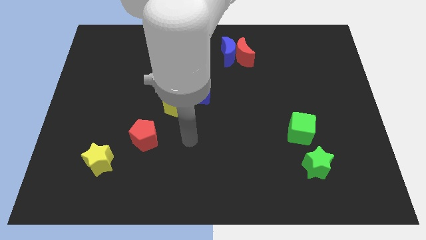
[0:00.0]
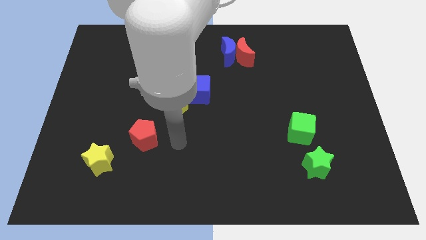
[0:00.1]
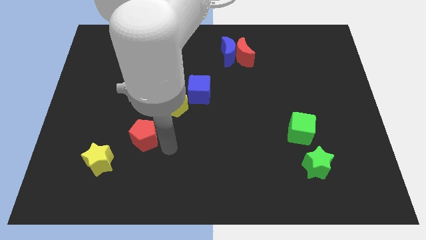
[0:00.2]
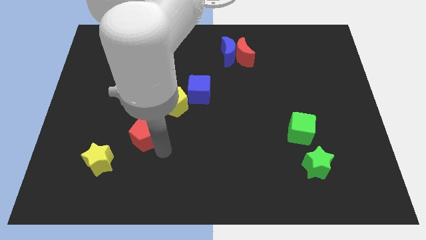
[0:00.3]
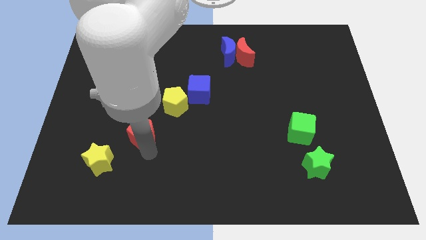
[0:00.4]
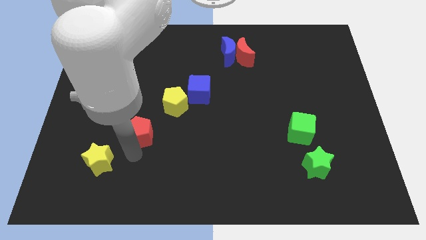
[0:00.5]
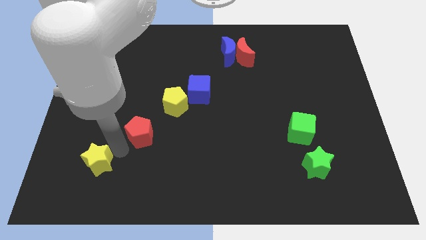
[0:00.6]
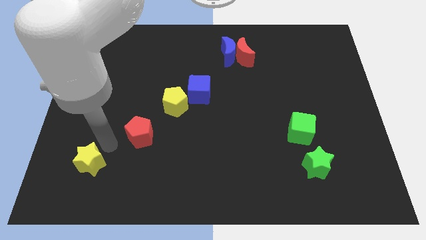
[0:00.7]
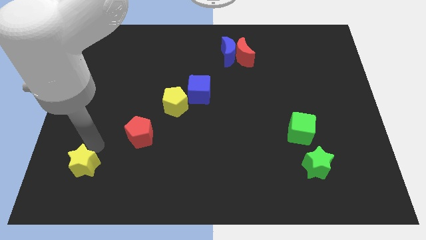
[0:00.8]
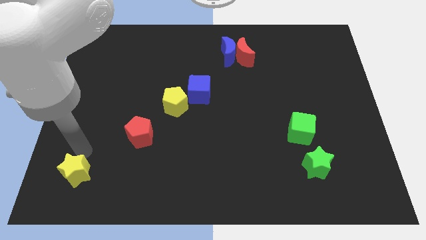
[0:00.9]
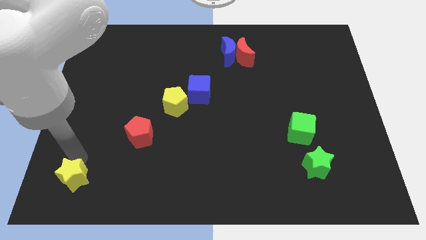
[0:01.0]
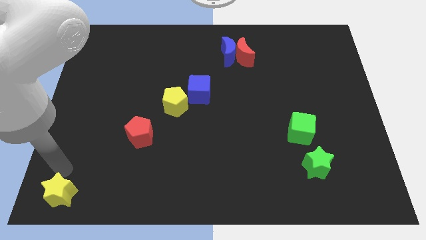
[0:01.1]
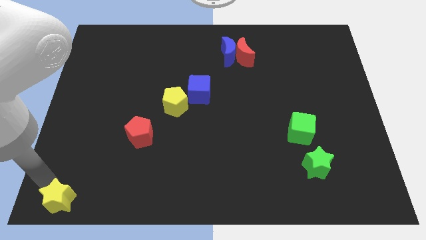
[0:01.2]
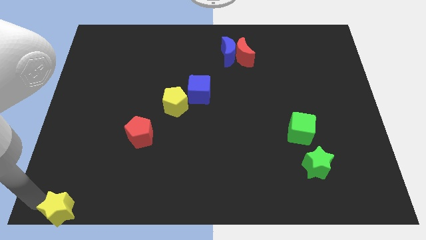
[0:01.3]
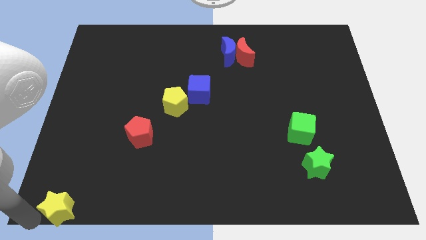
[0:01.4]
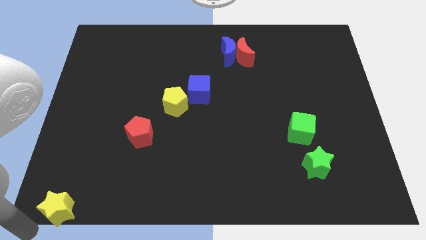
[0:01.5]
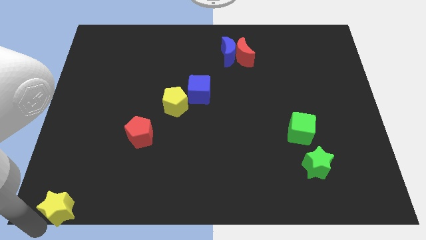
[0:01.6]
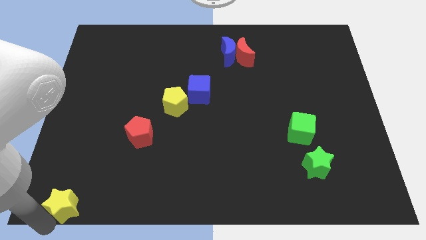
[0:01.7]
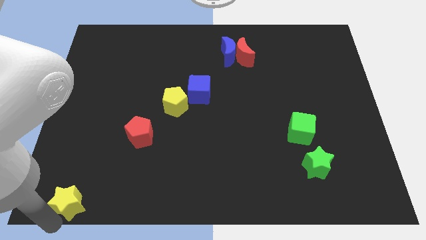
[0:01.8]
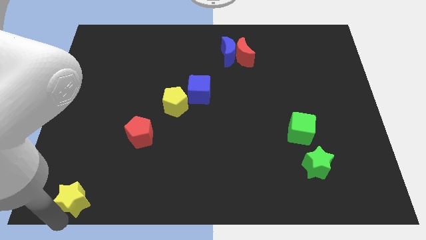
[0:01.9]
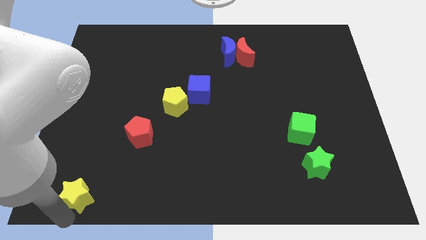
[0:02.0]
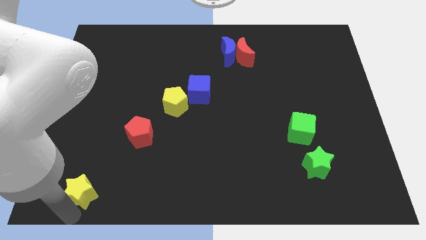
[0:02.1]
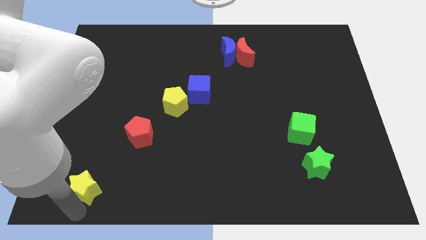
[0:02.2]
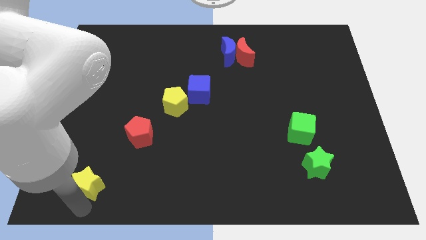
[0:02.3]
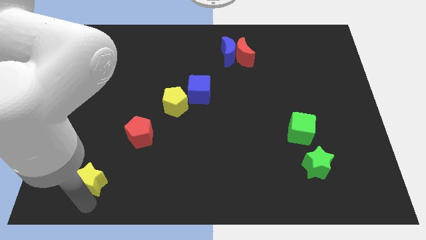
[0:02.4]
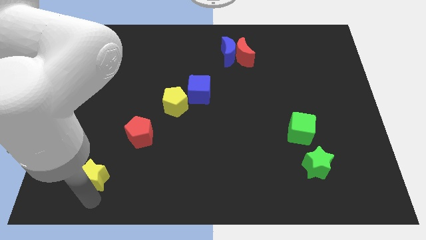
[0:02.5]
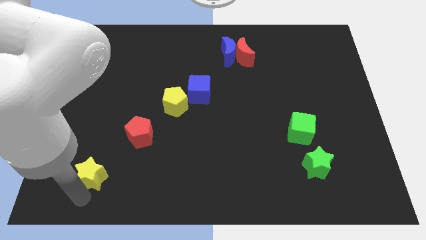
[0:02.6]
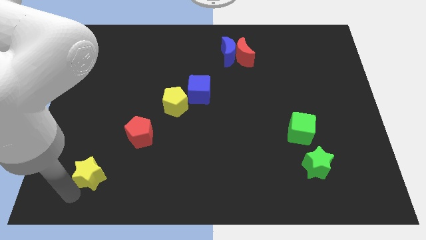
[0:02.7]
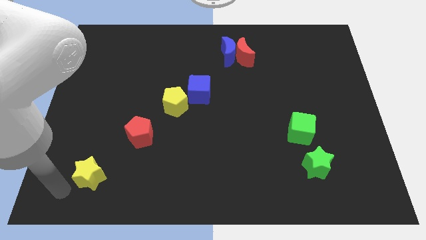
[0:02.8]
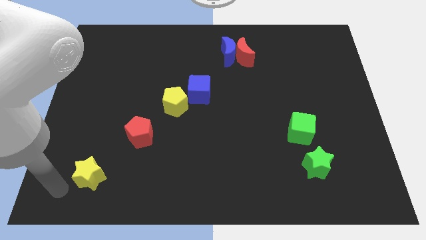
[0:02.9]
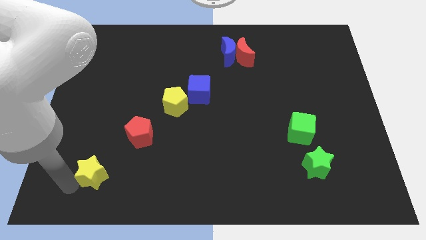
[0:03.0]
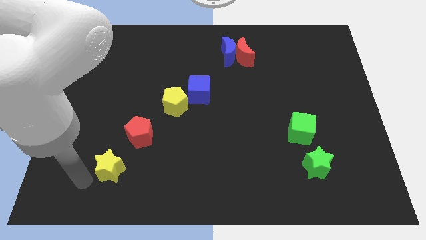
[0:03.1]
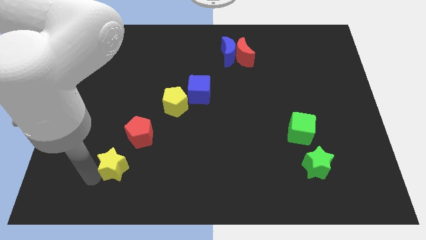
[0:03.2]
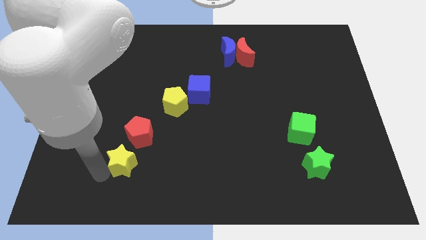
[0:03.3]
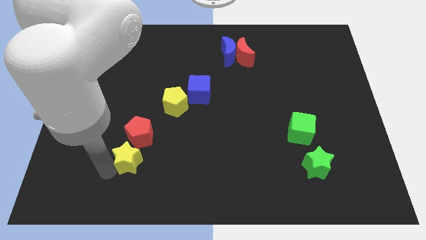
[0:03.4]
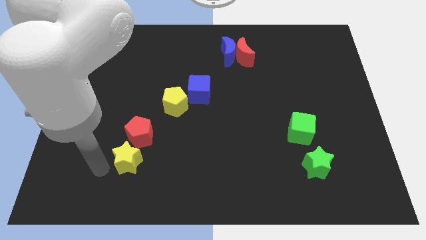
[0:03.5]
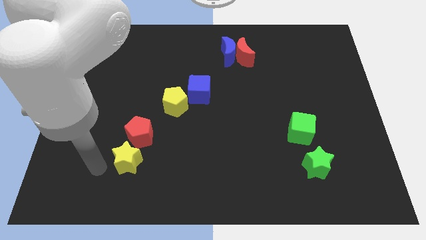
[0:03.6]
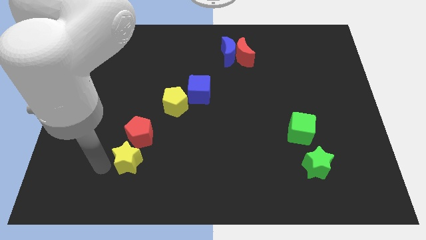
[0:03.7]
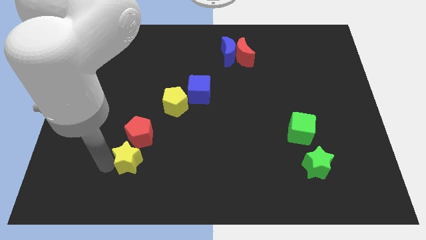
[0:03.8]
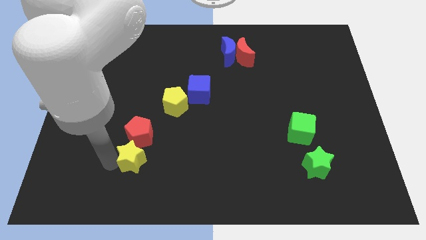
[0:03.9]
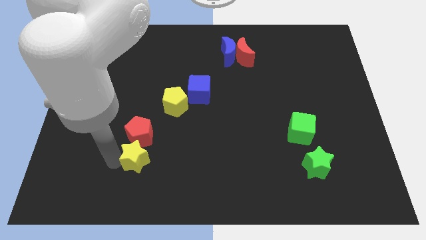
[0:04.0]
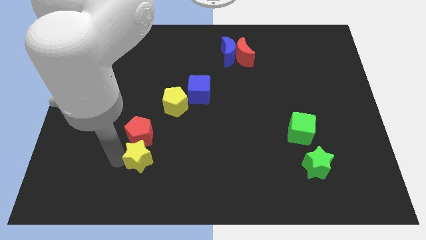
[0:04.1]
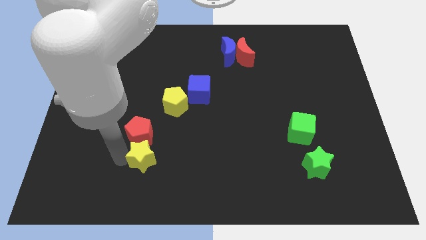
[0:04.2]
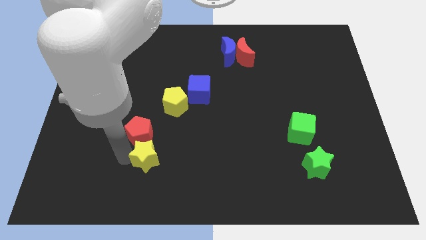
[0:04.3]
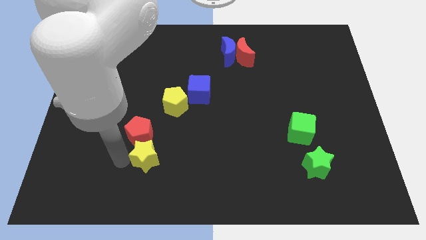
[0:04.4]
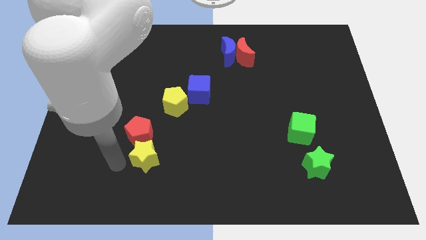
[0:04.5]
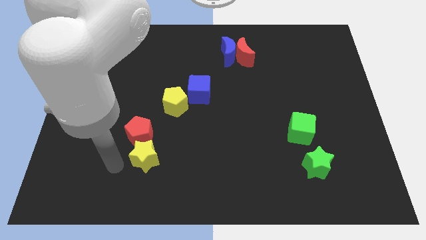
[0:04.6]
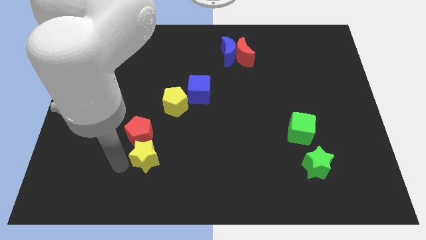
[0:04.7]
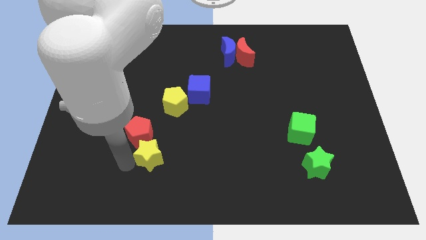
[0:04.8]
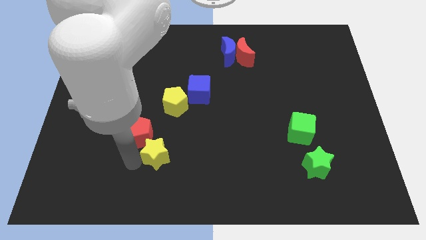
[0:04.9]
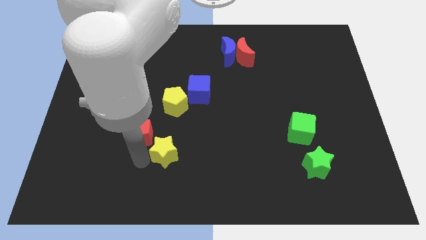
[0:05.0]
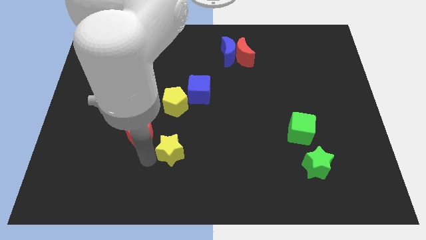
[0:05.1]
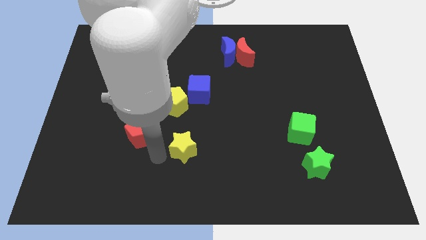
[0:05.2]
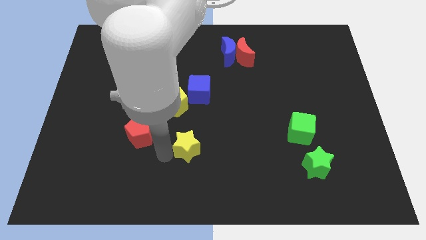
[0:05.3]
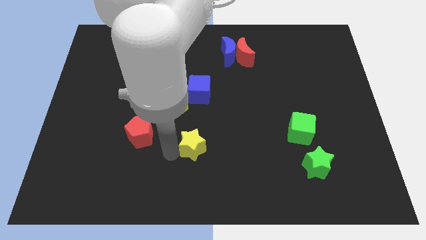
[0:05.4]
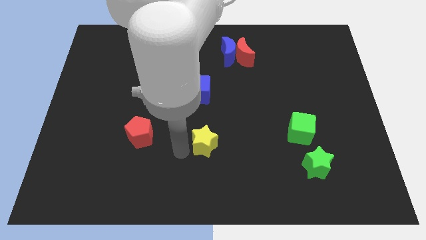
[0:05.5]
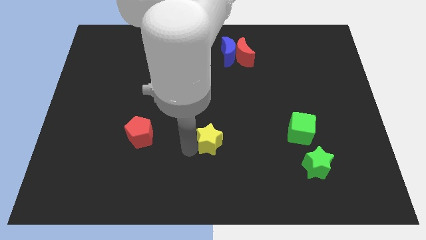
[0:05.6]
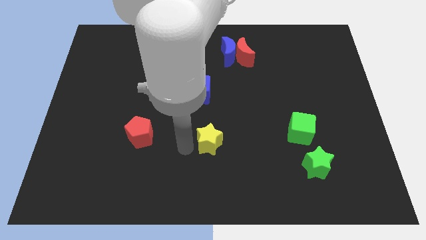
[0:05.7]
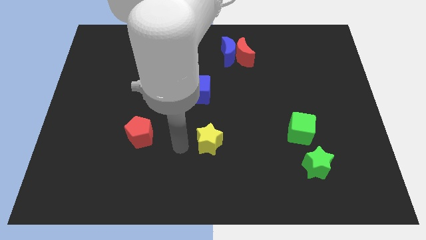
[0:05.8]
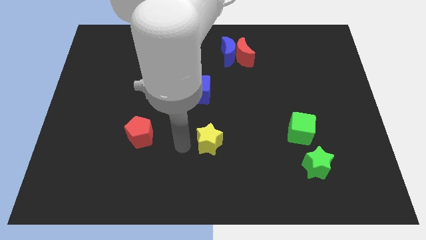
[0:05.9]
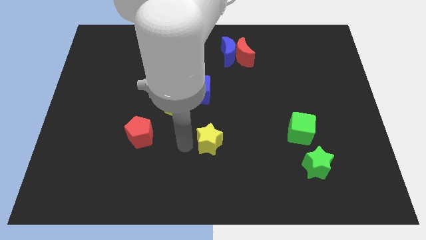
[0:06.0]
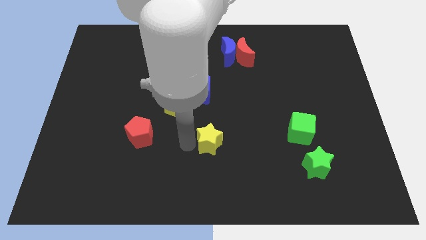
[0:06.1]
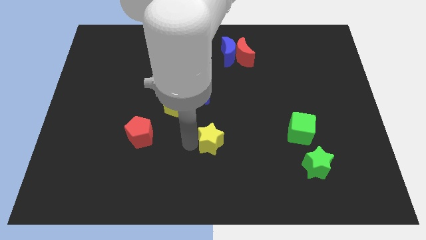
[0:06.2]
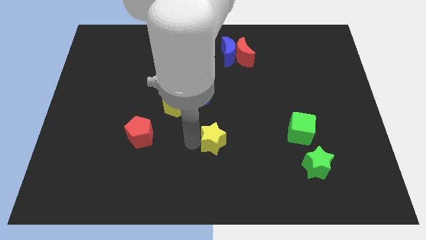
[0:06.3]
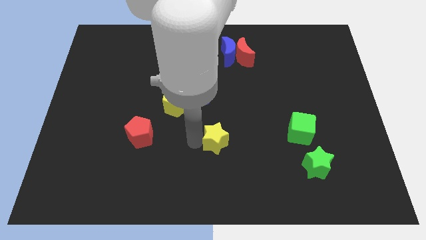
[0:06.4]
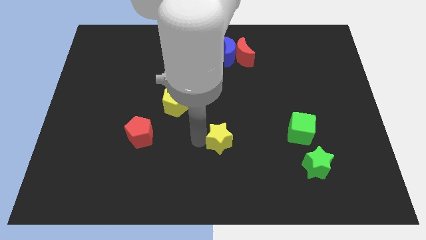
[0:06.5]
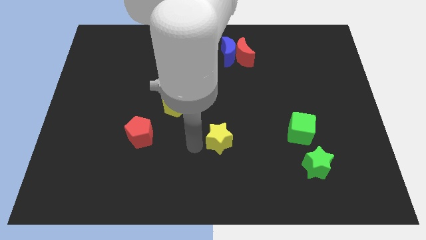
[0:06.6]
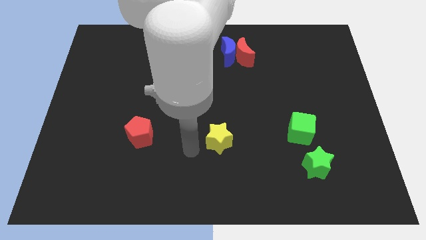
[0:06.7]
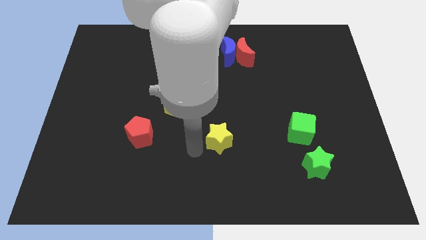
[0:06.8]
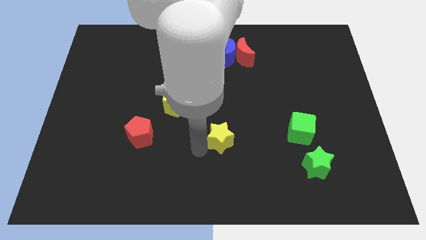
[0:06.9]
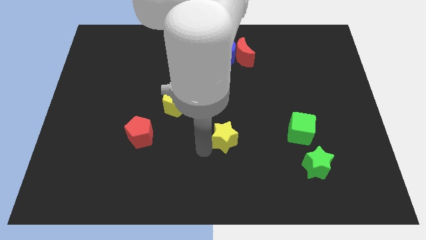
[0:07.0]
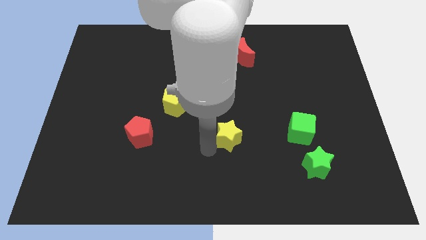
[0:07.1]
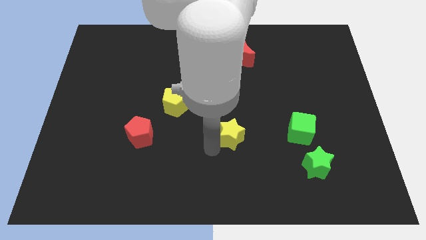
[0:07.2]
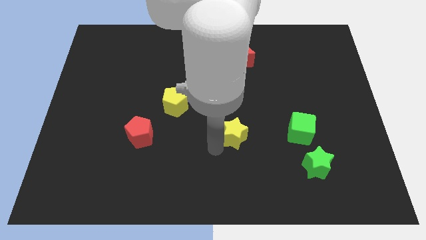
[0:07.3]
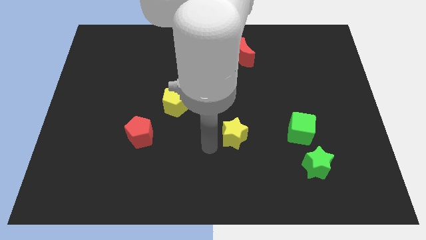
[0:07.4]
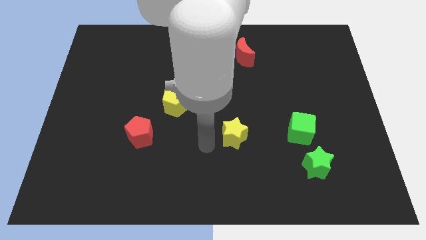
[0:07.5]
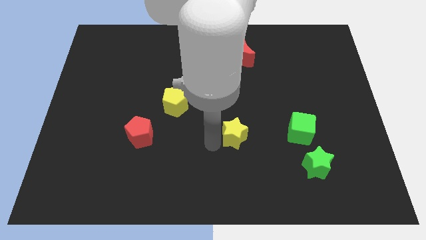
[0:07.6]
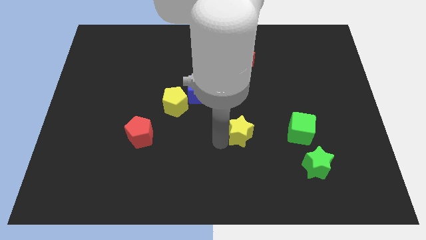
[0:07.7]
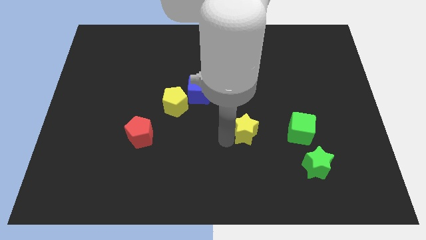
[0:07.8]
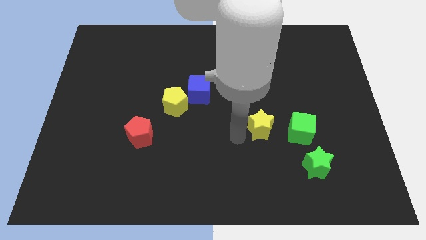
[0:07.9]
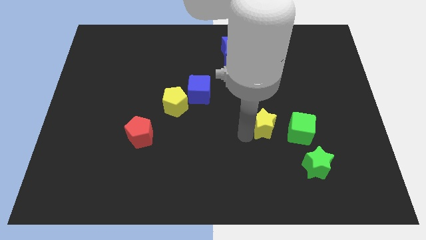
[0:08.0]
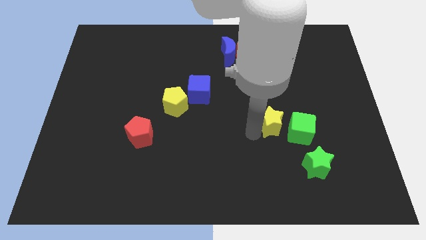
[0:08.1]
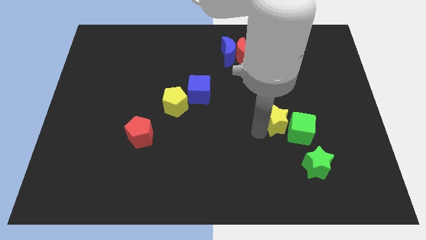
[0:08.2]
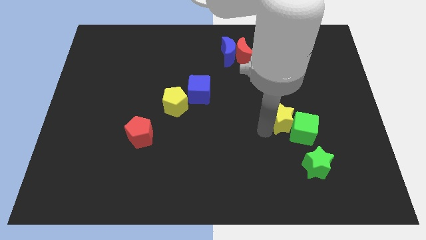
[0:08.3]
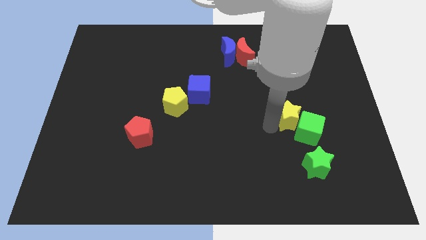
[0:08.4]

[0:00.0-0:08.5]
slide the yellow star above the green star
